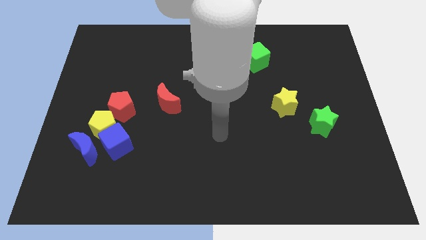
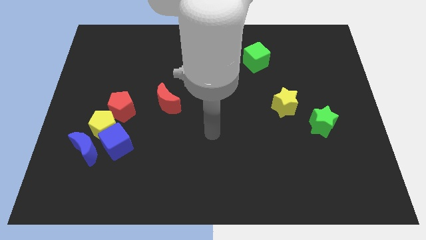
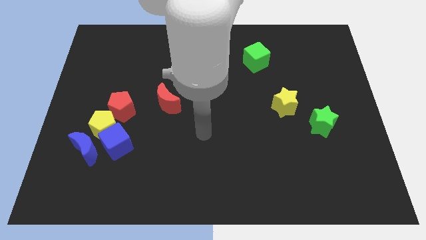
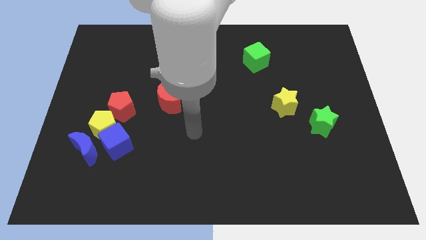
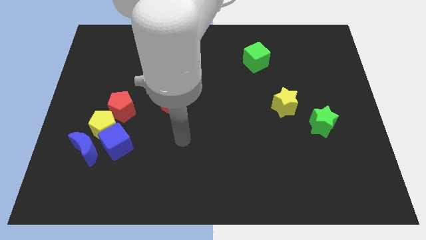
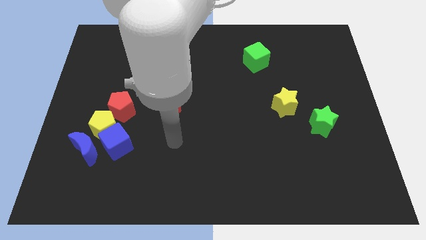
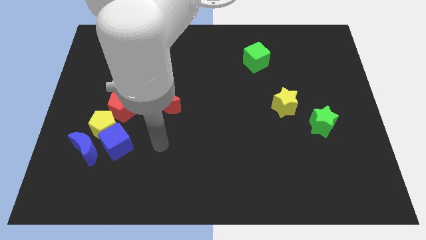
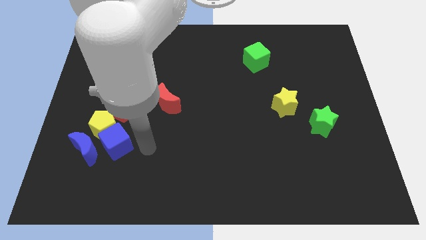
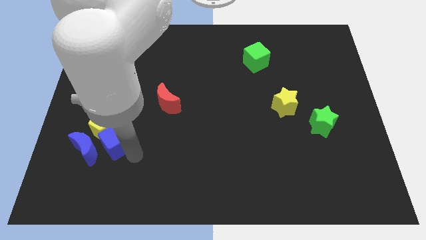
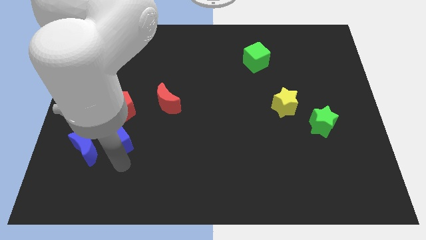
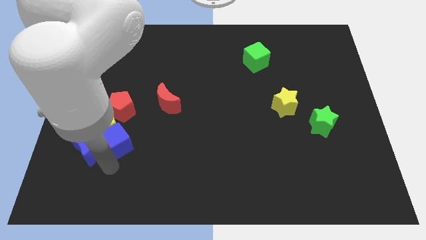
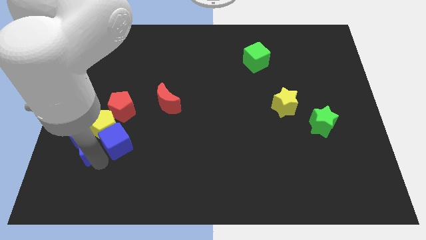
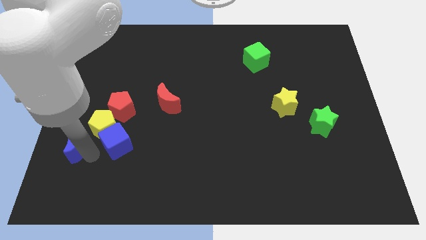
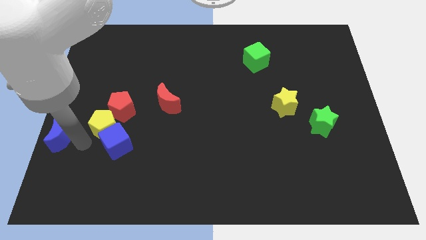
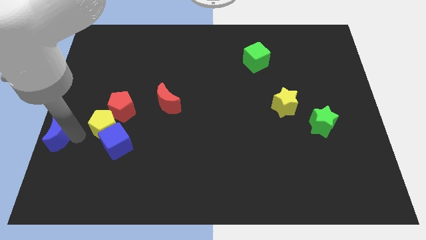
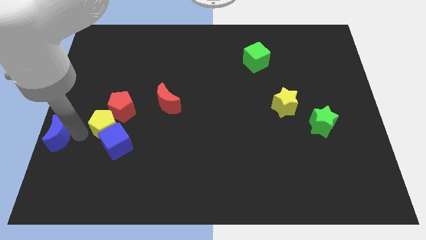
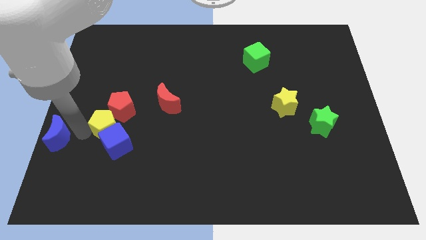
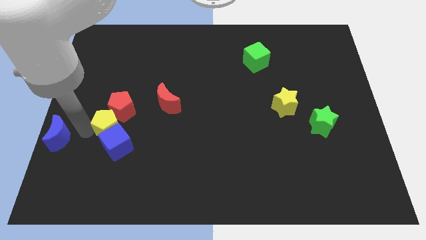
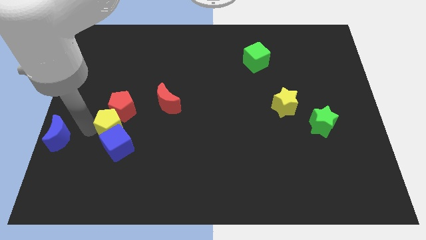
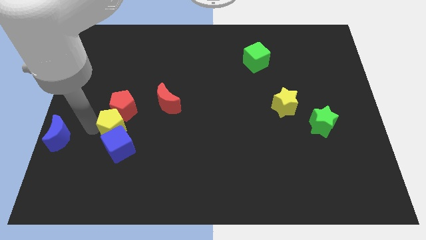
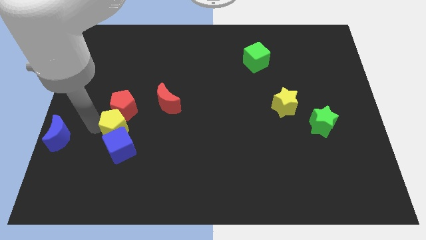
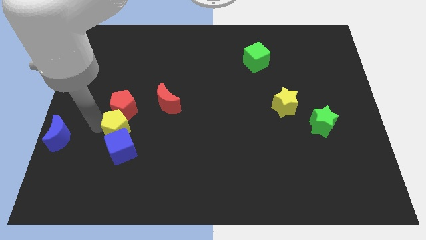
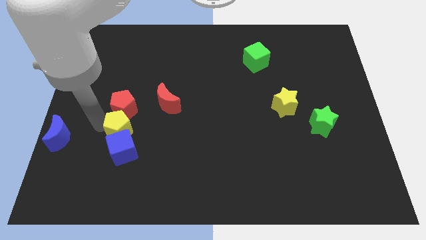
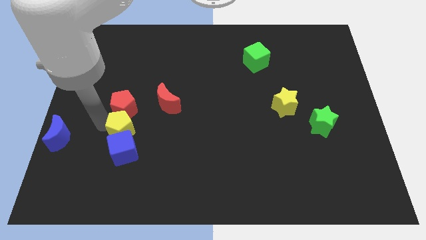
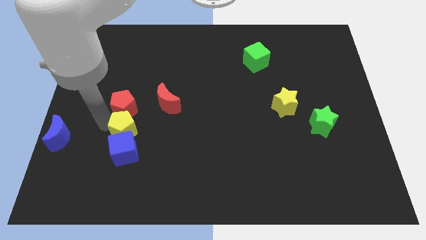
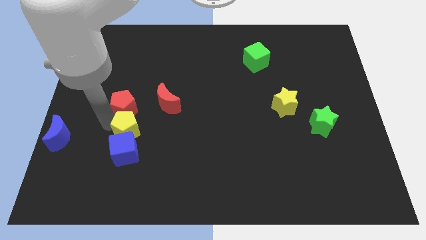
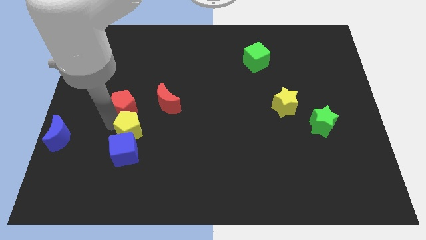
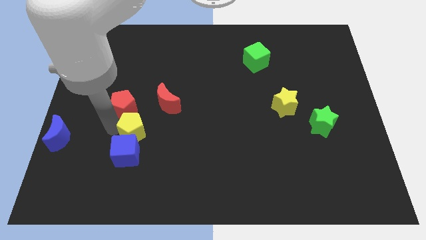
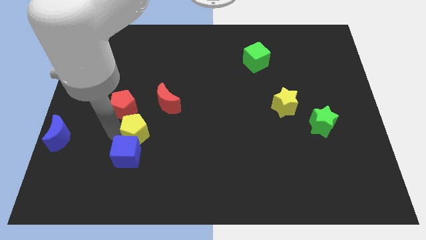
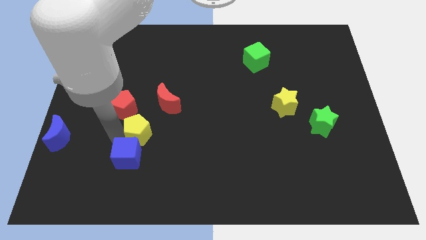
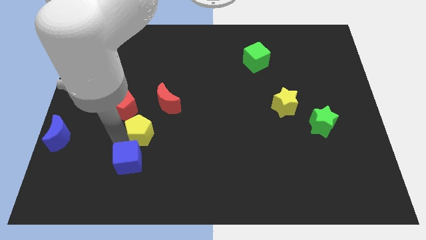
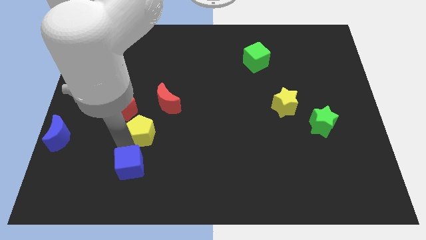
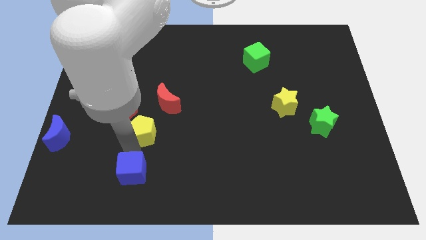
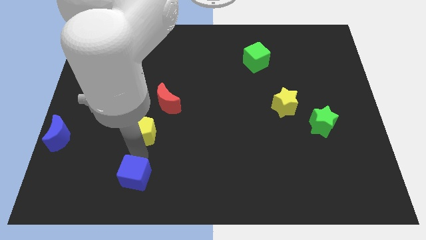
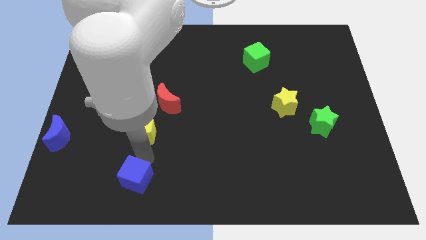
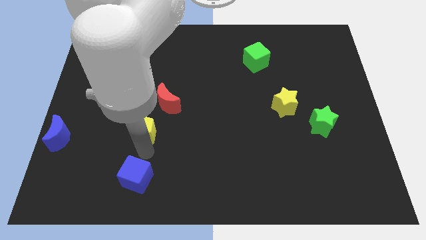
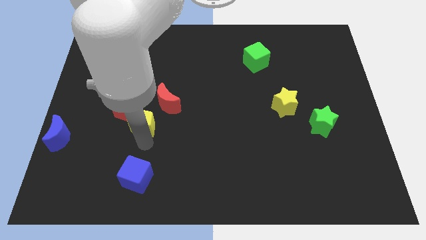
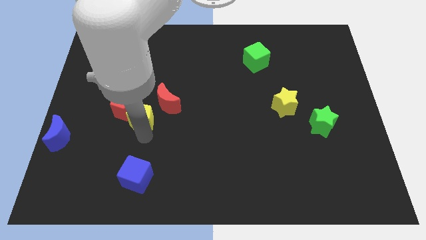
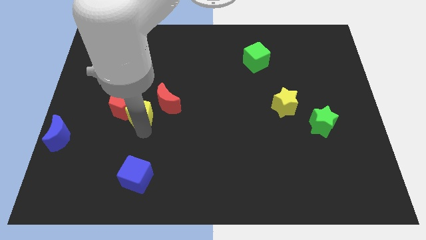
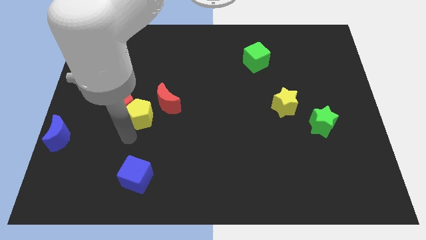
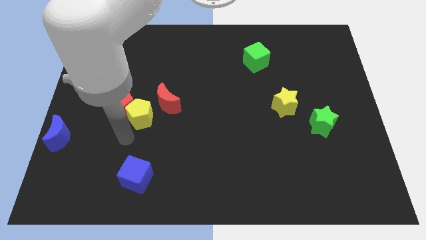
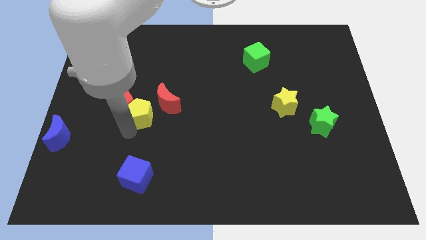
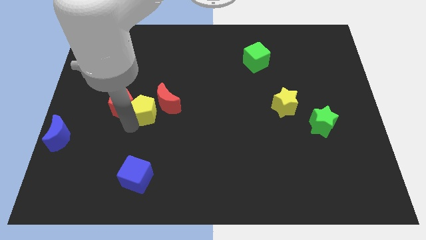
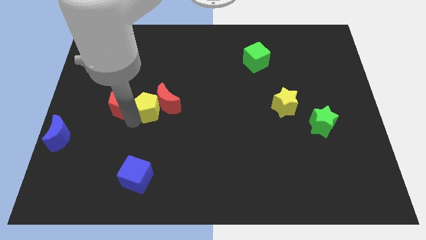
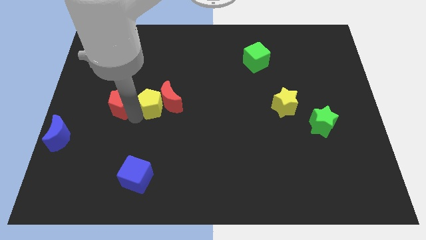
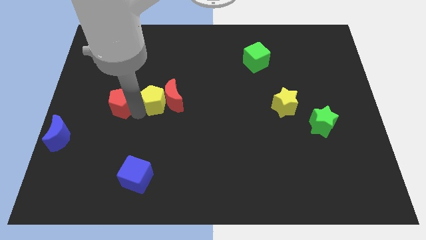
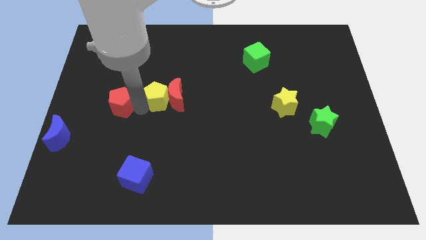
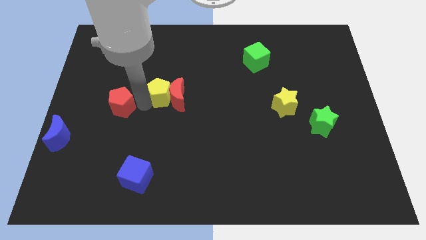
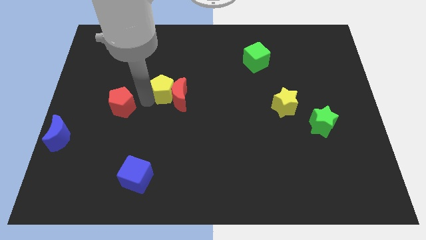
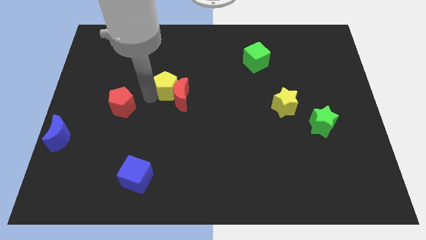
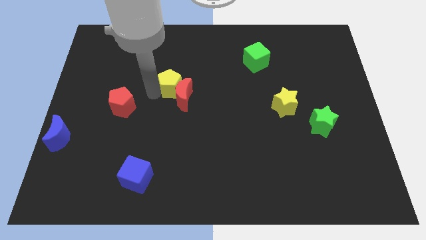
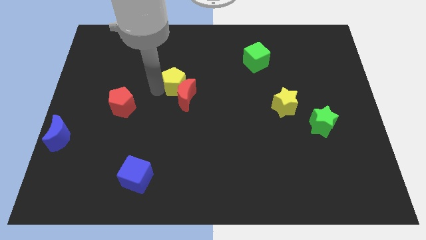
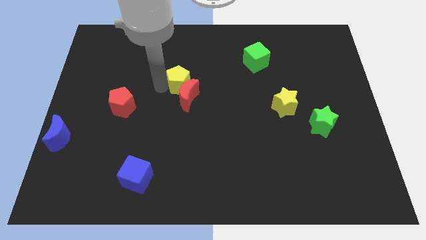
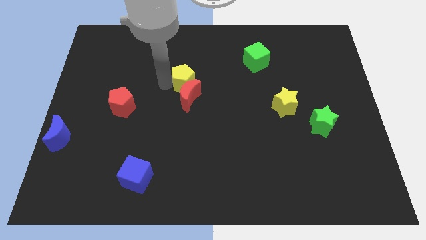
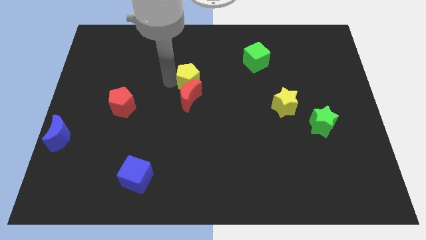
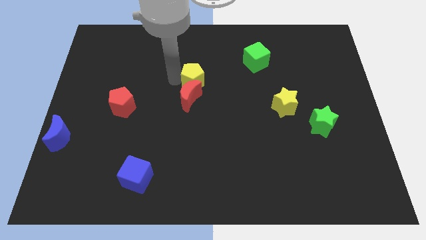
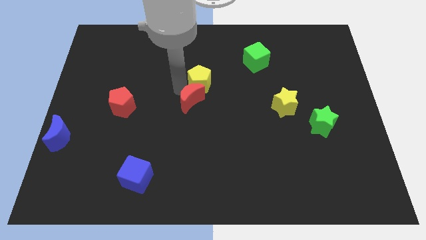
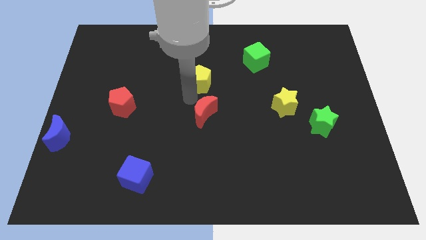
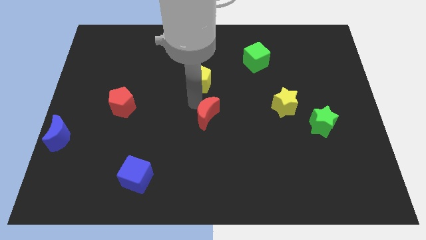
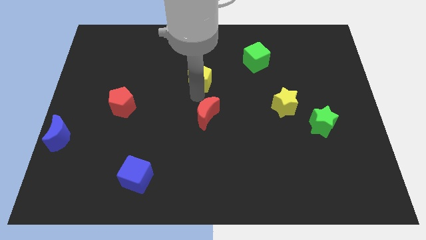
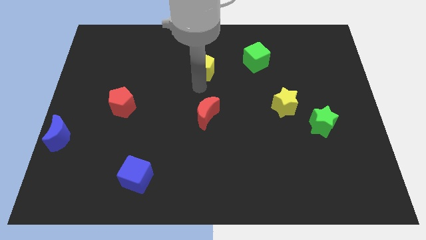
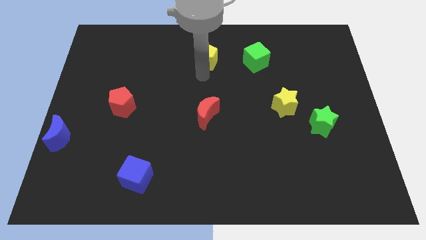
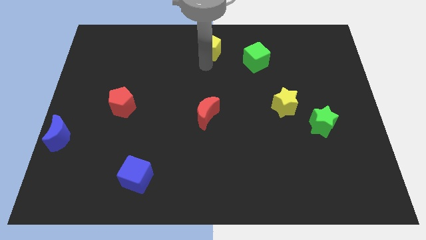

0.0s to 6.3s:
slide the yellow pentagon to the top
